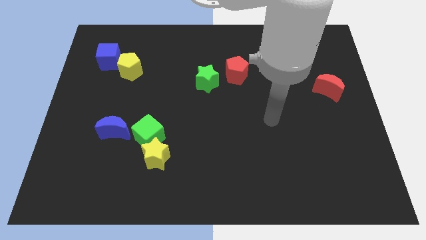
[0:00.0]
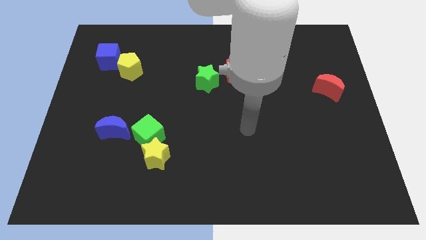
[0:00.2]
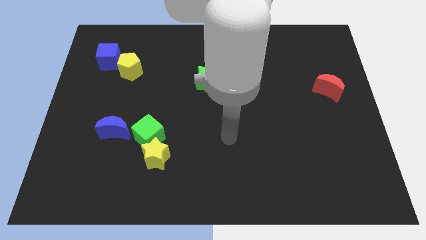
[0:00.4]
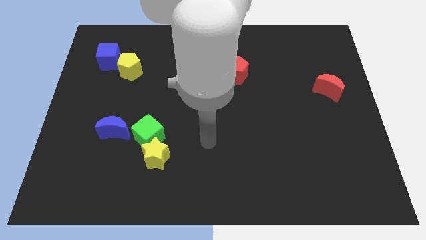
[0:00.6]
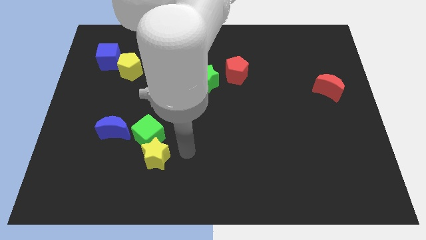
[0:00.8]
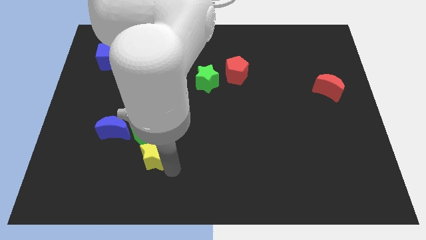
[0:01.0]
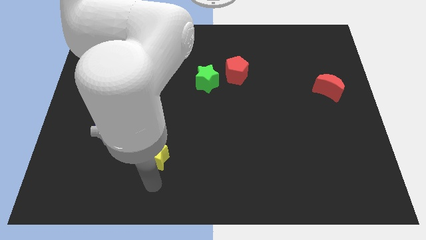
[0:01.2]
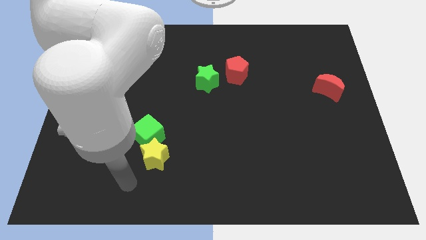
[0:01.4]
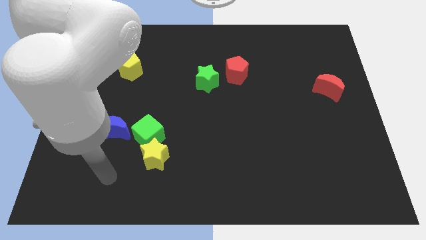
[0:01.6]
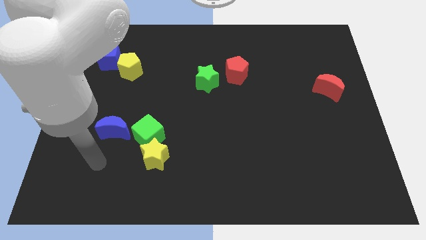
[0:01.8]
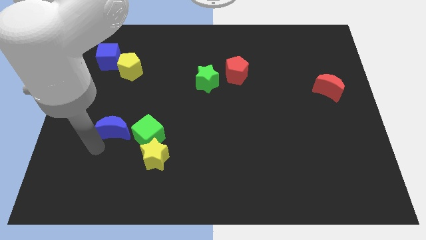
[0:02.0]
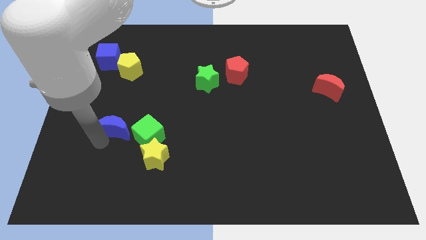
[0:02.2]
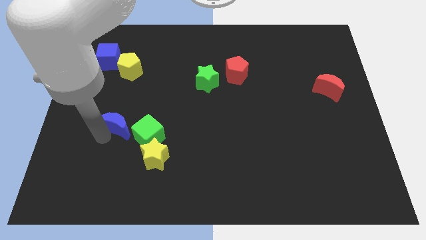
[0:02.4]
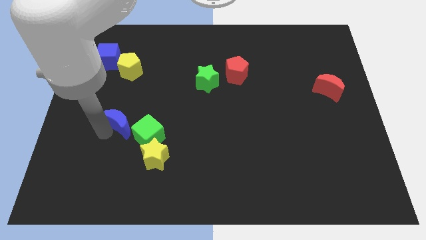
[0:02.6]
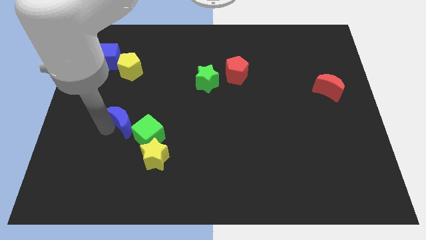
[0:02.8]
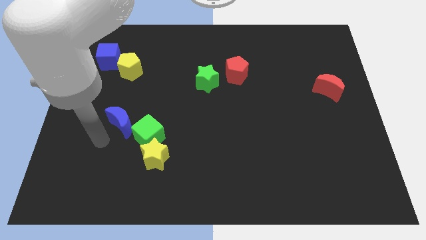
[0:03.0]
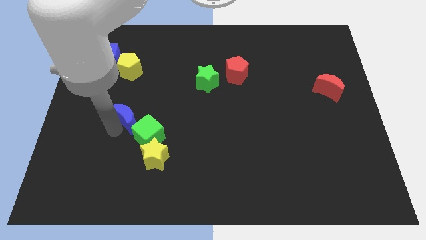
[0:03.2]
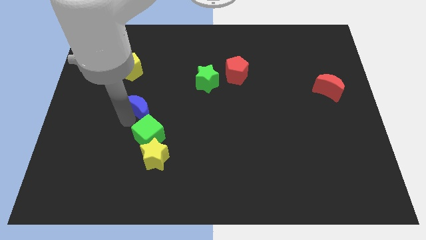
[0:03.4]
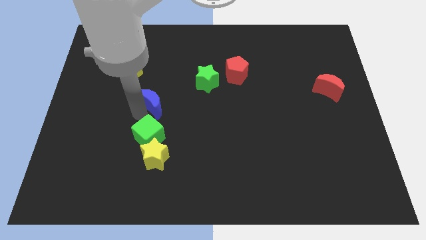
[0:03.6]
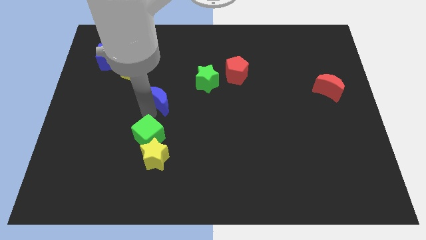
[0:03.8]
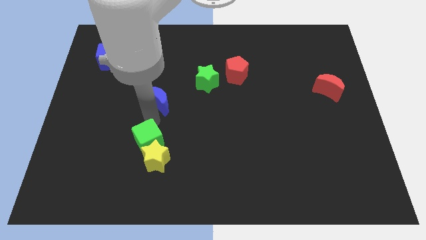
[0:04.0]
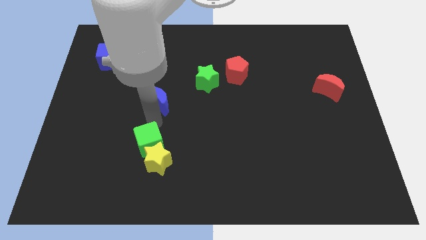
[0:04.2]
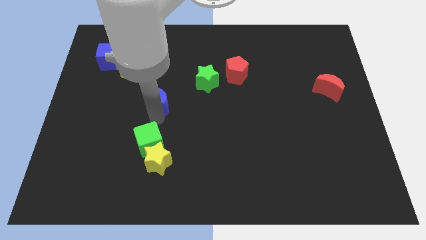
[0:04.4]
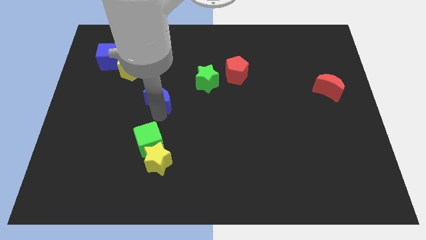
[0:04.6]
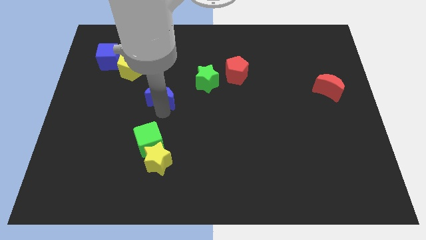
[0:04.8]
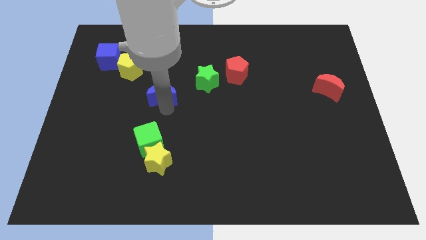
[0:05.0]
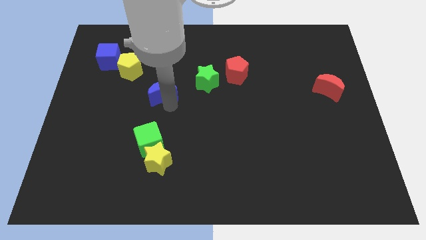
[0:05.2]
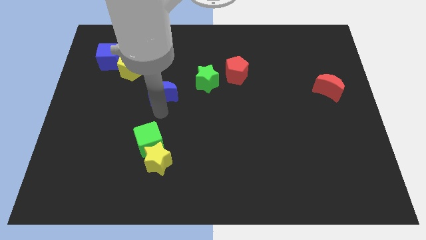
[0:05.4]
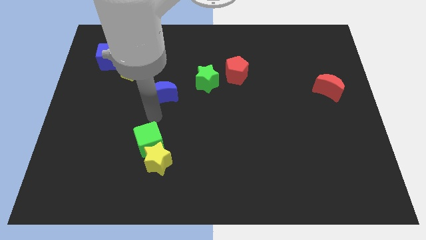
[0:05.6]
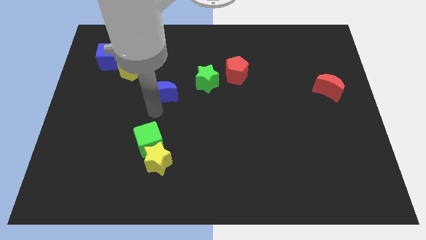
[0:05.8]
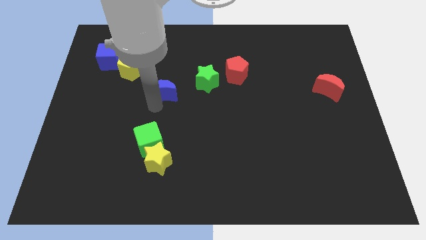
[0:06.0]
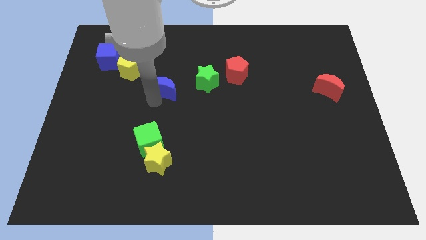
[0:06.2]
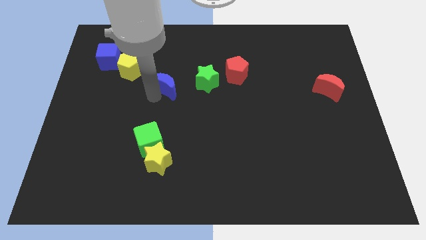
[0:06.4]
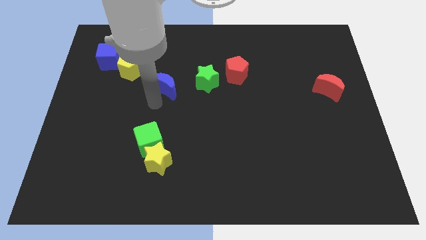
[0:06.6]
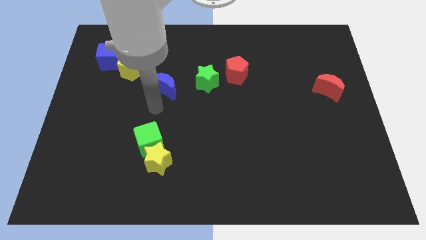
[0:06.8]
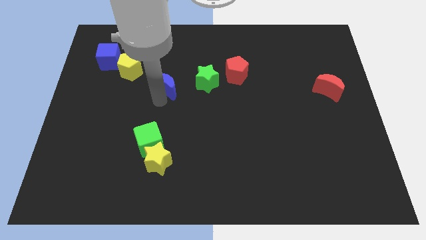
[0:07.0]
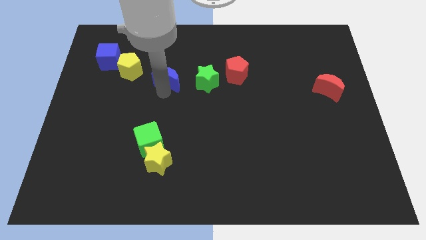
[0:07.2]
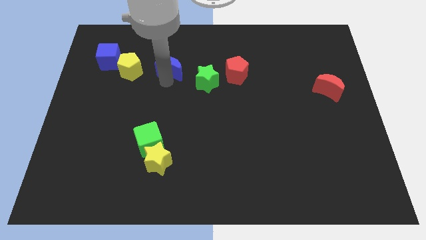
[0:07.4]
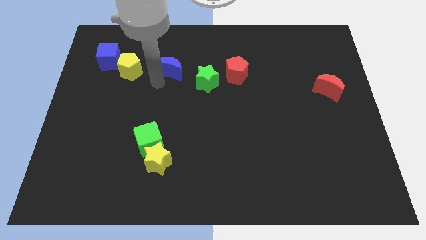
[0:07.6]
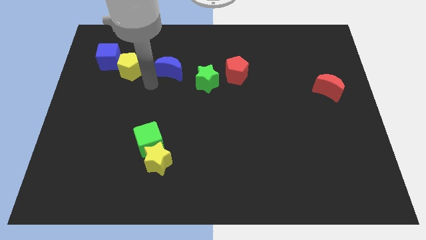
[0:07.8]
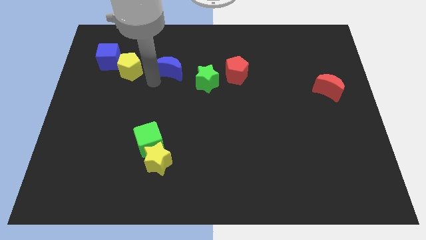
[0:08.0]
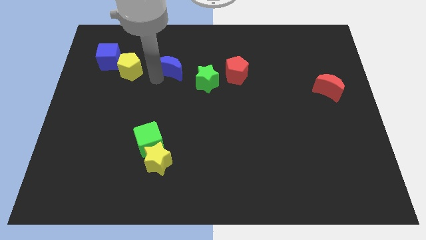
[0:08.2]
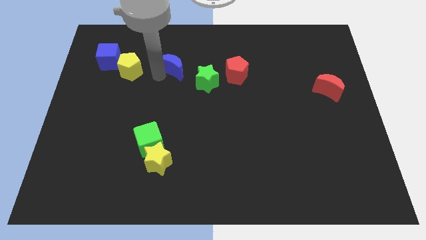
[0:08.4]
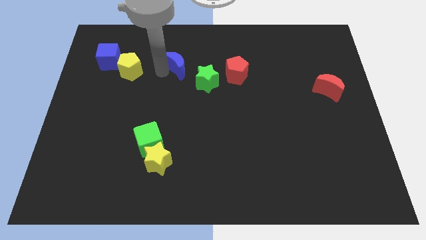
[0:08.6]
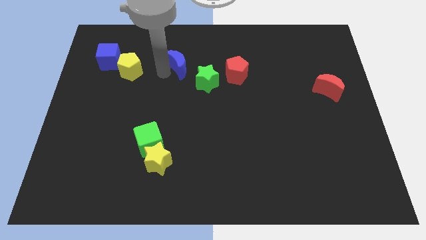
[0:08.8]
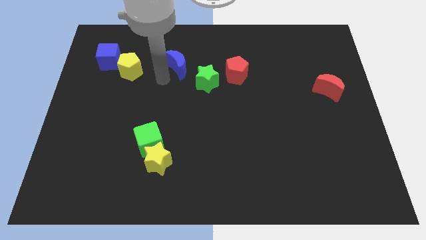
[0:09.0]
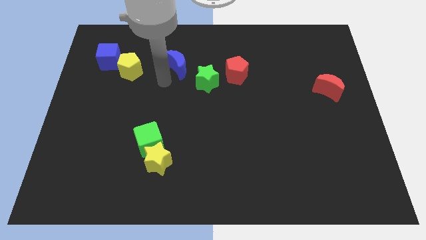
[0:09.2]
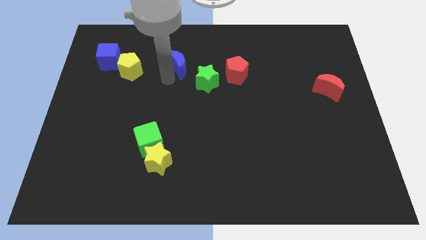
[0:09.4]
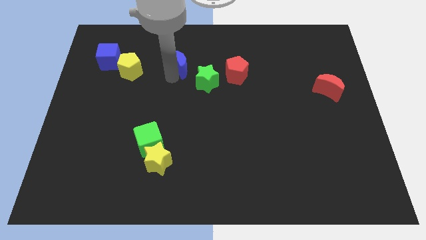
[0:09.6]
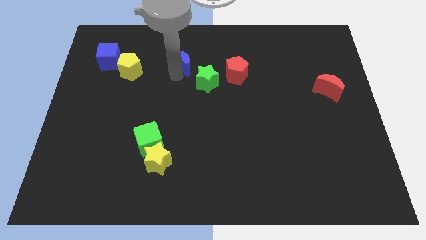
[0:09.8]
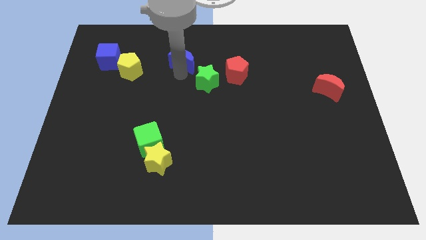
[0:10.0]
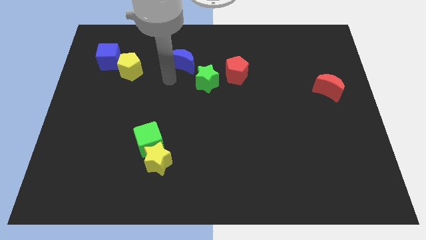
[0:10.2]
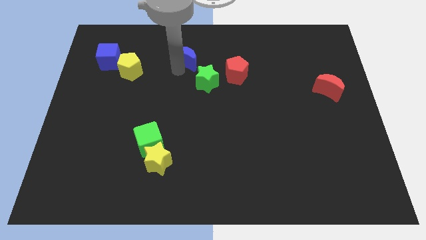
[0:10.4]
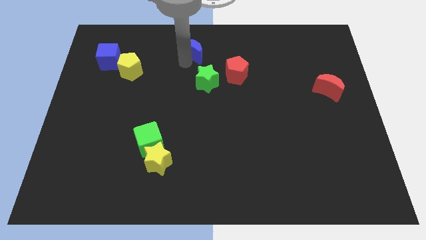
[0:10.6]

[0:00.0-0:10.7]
put the blue moon to the top side

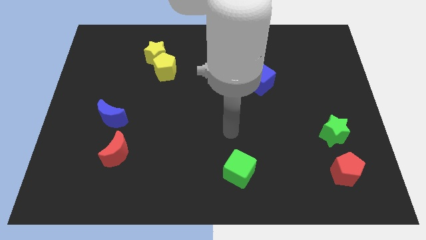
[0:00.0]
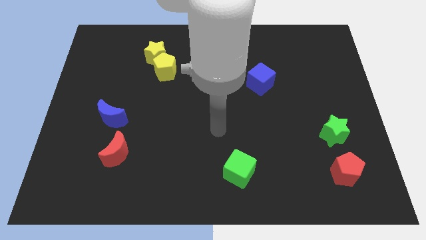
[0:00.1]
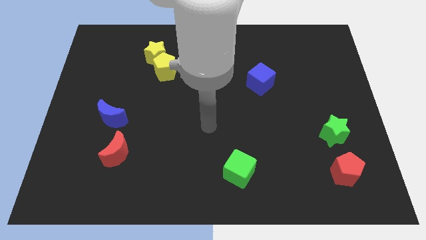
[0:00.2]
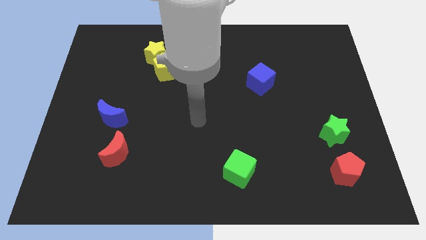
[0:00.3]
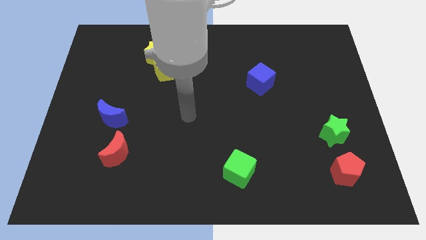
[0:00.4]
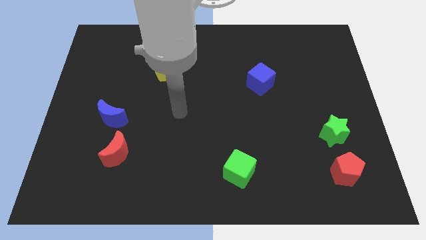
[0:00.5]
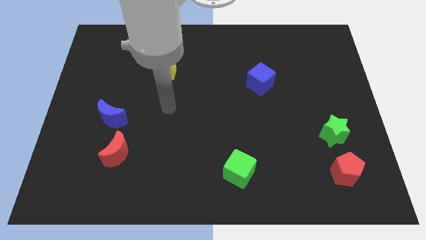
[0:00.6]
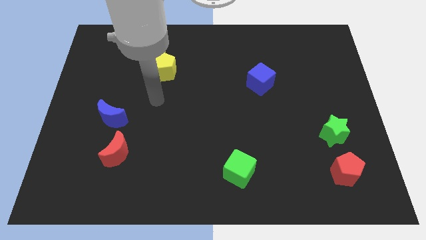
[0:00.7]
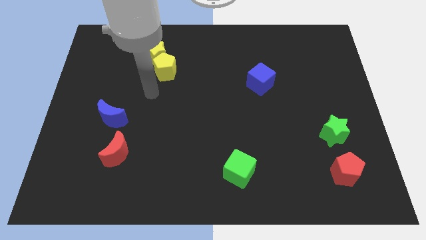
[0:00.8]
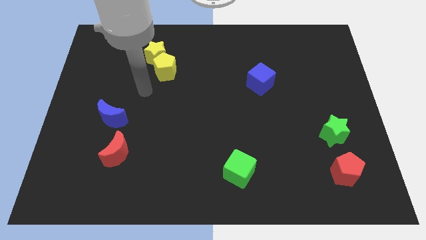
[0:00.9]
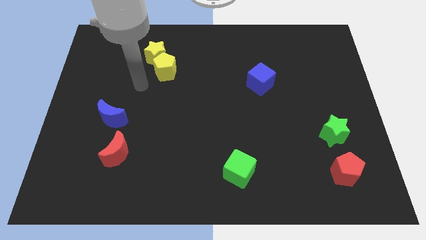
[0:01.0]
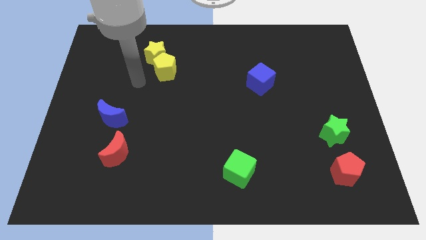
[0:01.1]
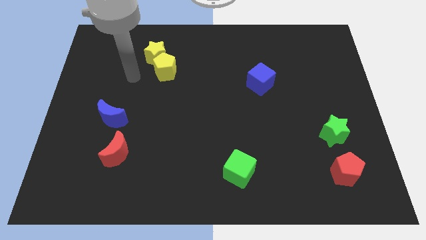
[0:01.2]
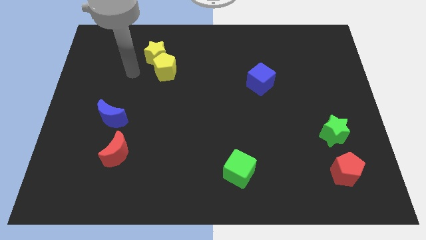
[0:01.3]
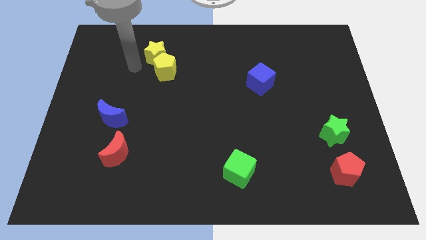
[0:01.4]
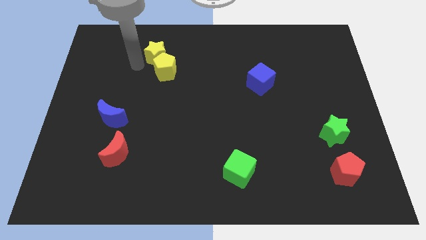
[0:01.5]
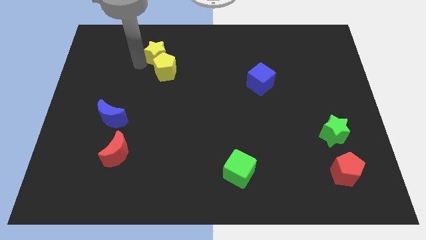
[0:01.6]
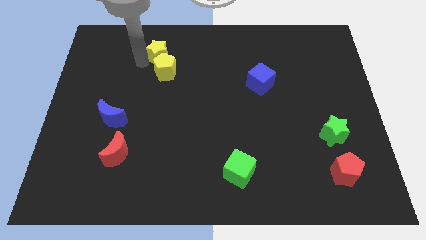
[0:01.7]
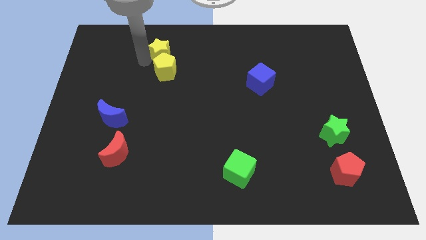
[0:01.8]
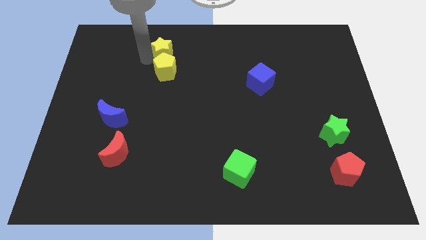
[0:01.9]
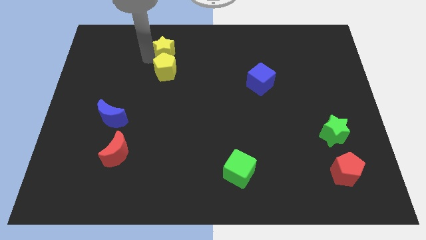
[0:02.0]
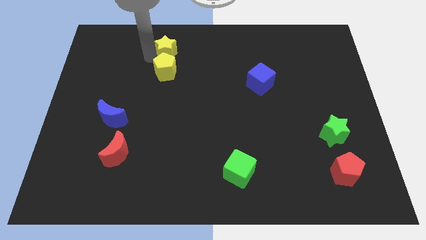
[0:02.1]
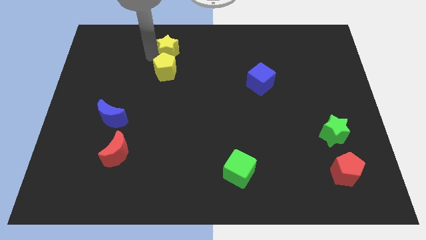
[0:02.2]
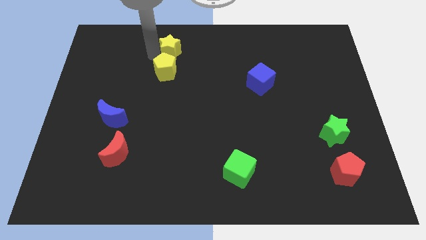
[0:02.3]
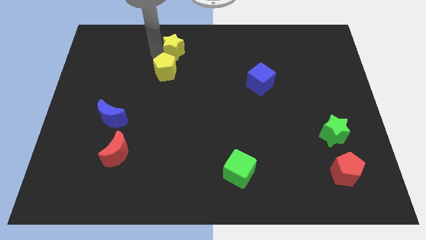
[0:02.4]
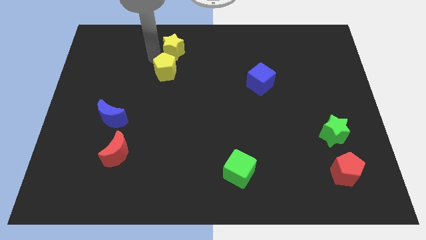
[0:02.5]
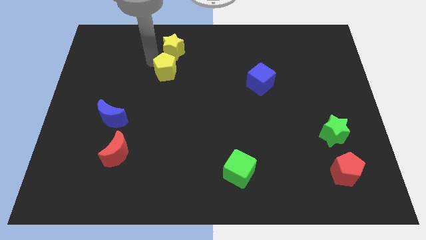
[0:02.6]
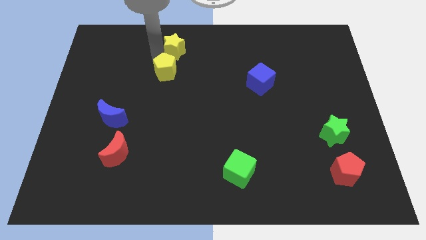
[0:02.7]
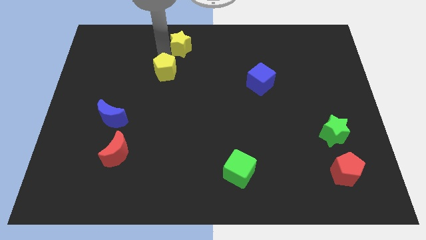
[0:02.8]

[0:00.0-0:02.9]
slide the yellow star to the top side
